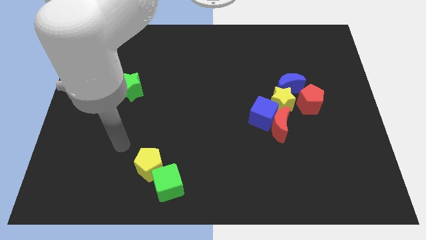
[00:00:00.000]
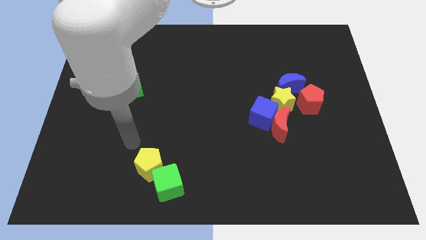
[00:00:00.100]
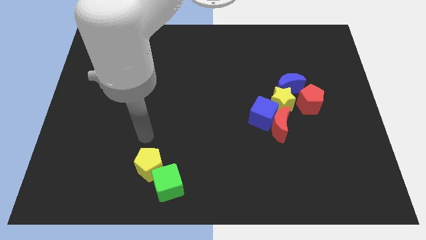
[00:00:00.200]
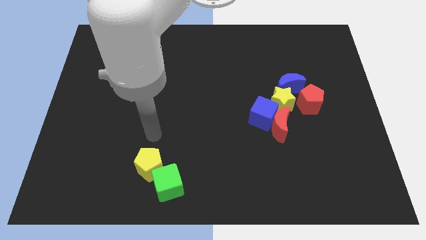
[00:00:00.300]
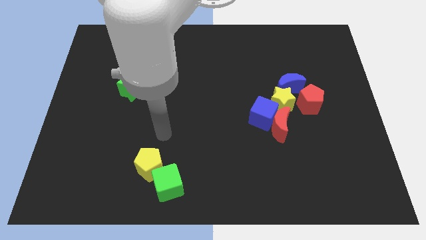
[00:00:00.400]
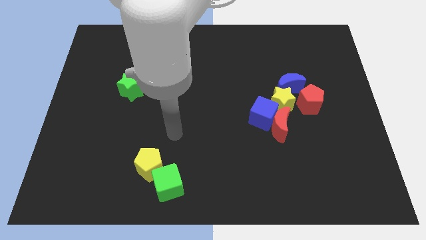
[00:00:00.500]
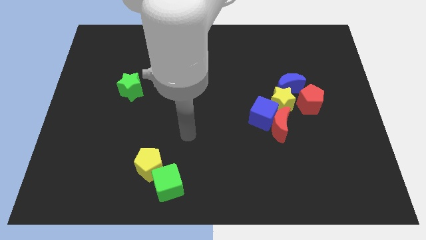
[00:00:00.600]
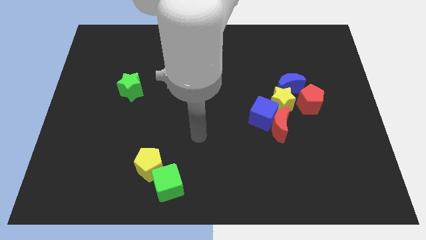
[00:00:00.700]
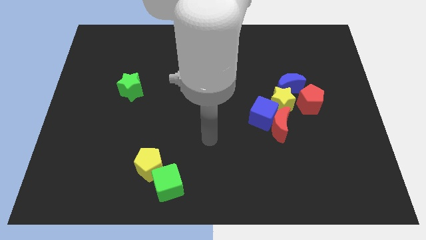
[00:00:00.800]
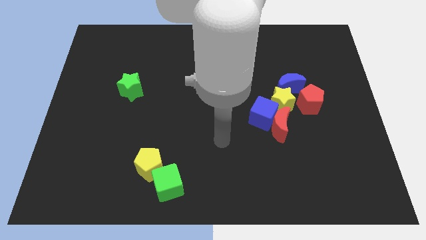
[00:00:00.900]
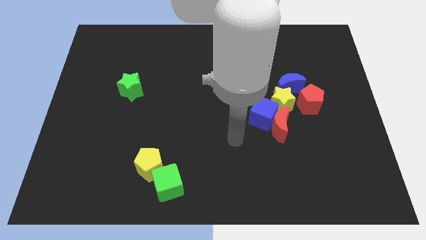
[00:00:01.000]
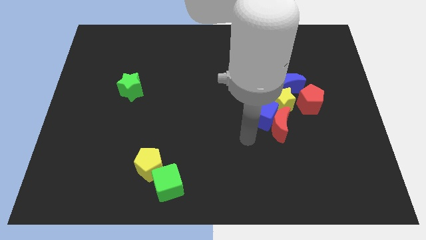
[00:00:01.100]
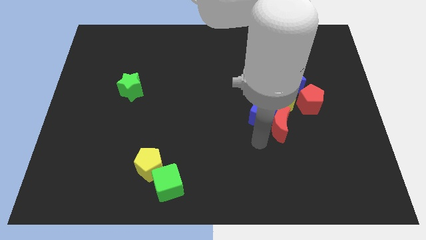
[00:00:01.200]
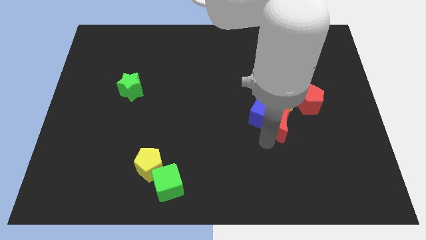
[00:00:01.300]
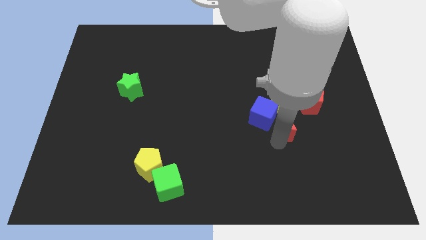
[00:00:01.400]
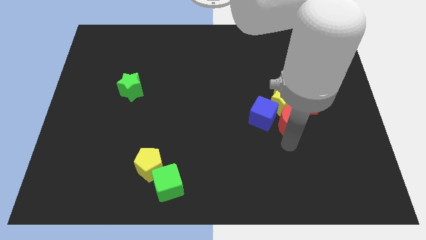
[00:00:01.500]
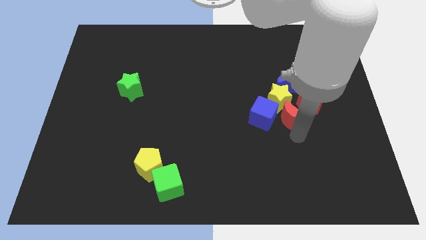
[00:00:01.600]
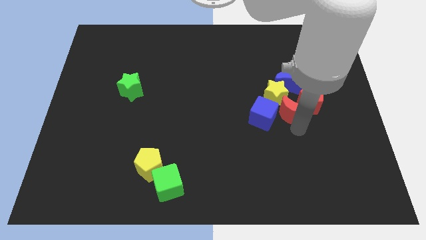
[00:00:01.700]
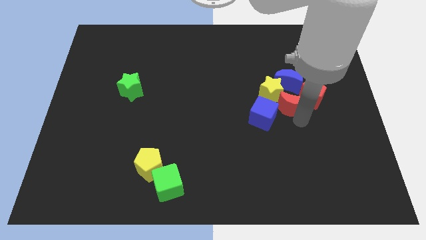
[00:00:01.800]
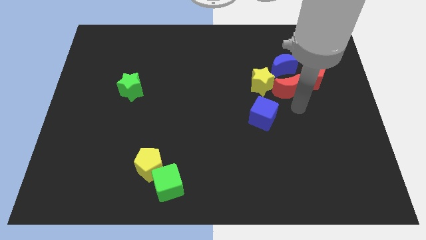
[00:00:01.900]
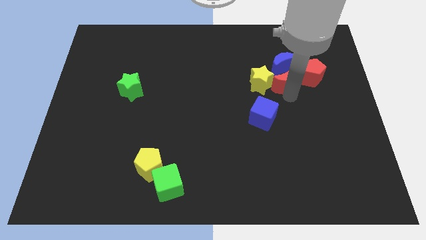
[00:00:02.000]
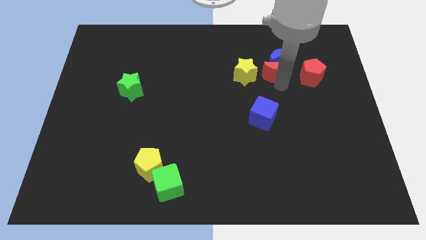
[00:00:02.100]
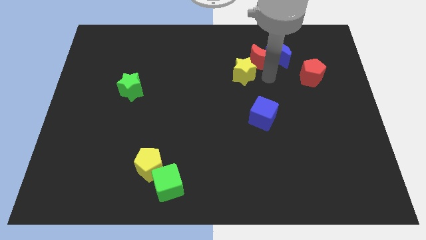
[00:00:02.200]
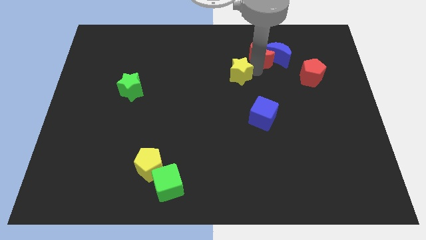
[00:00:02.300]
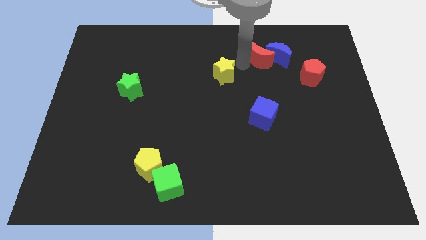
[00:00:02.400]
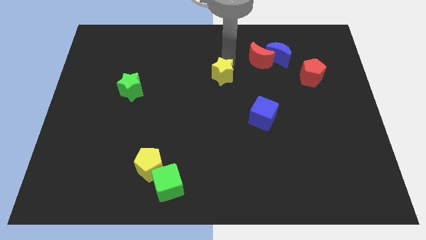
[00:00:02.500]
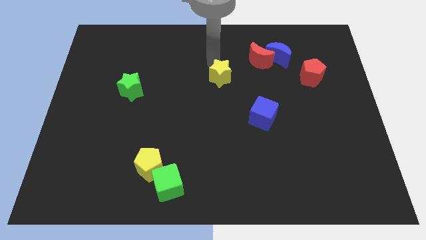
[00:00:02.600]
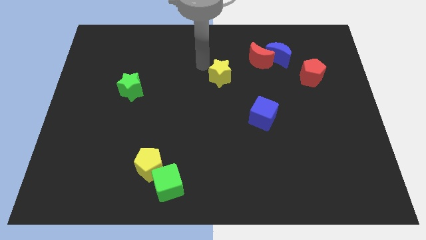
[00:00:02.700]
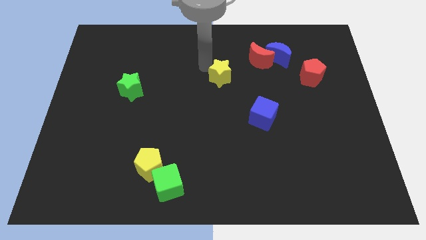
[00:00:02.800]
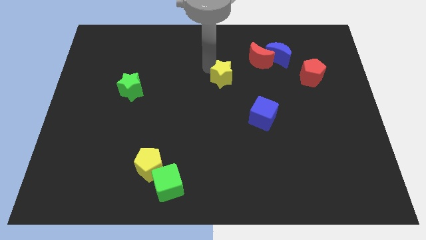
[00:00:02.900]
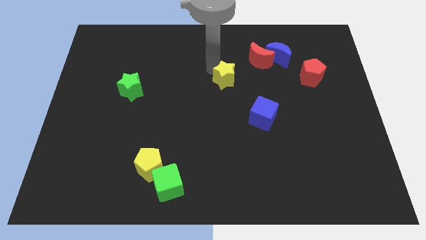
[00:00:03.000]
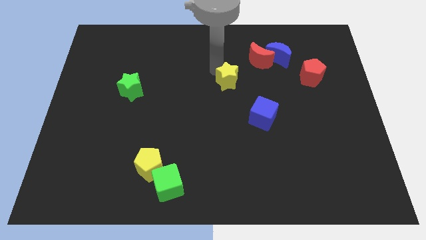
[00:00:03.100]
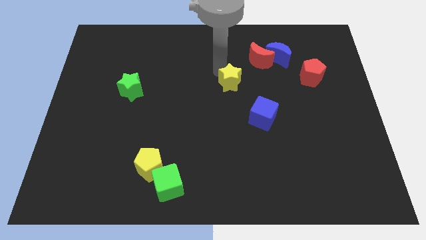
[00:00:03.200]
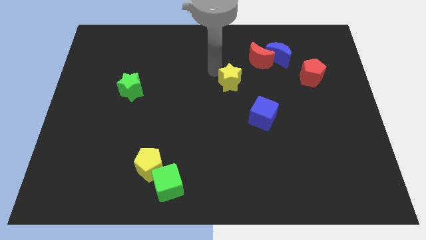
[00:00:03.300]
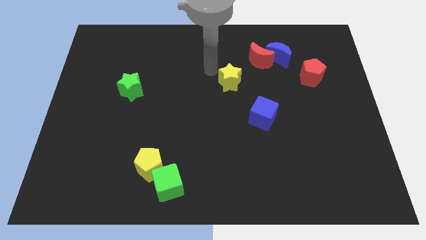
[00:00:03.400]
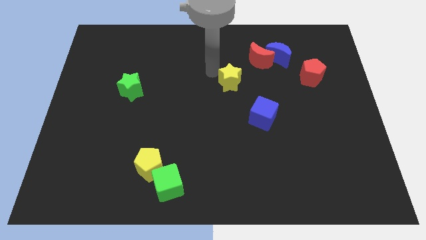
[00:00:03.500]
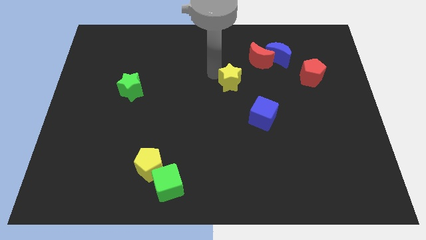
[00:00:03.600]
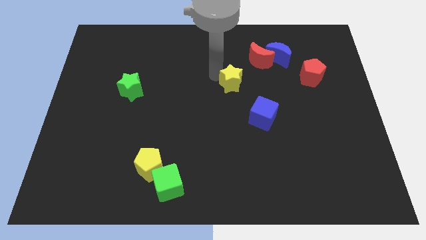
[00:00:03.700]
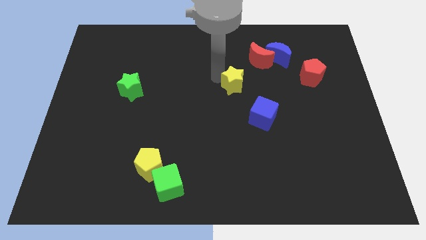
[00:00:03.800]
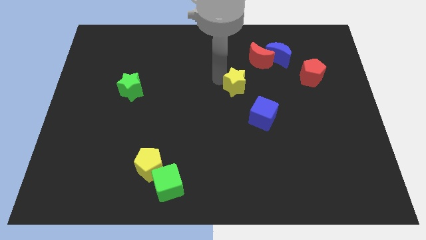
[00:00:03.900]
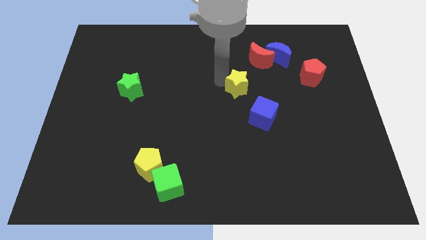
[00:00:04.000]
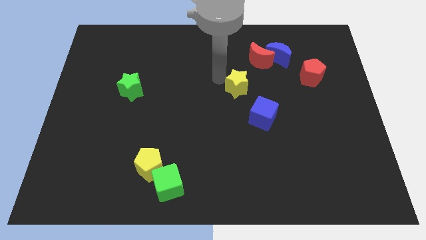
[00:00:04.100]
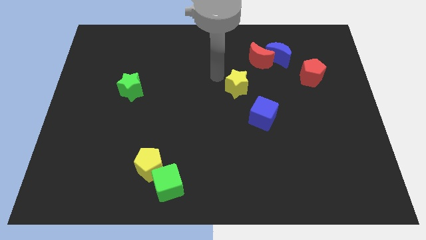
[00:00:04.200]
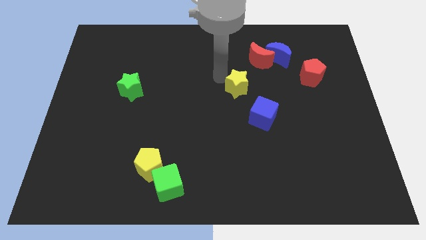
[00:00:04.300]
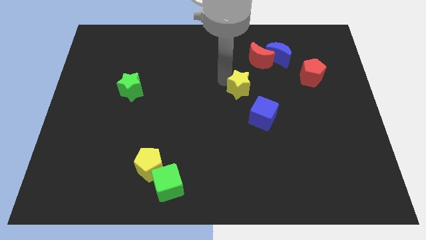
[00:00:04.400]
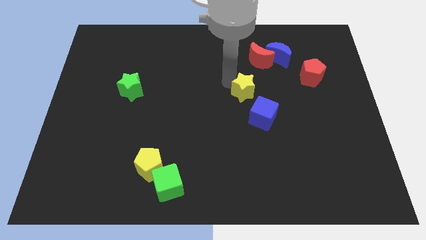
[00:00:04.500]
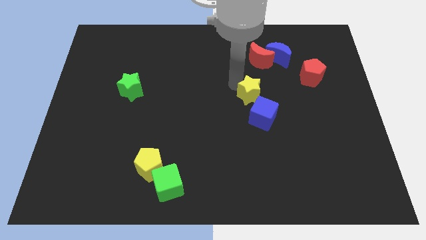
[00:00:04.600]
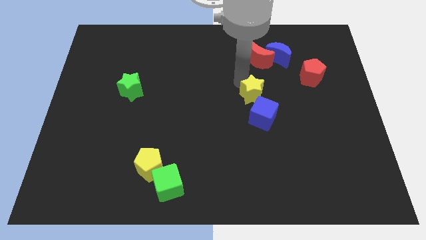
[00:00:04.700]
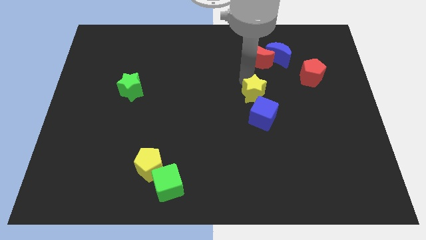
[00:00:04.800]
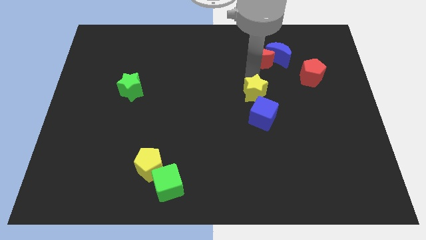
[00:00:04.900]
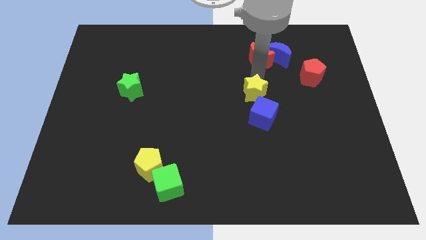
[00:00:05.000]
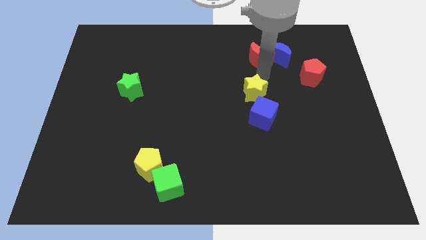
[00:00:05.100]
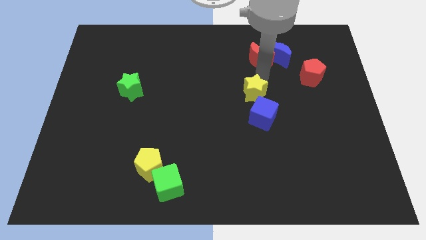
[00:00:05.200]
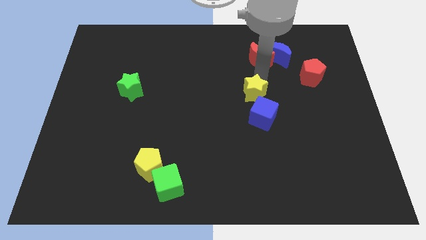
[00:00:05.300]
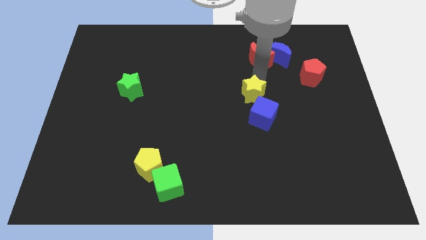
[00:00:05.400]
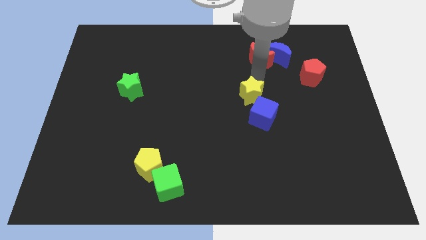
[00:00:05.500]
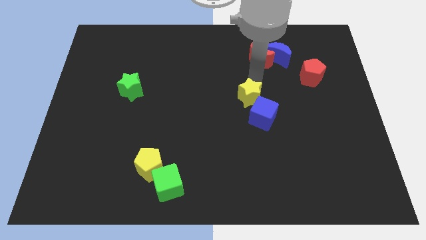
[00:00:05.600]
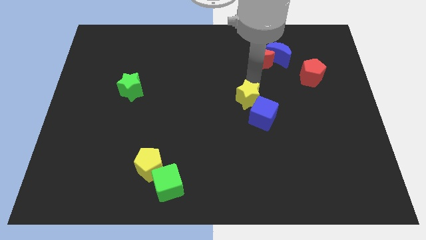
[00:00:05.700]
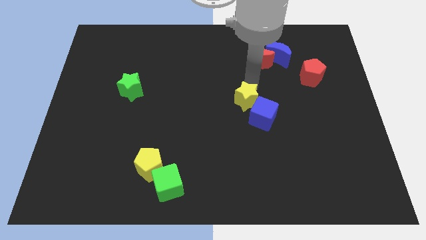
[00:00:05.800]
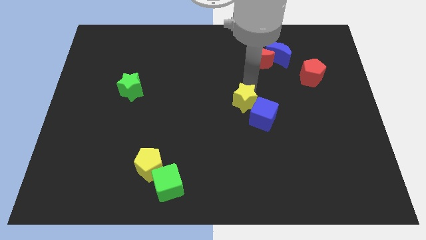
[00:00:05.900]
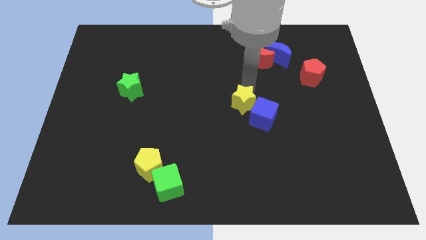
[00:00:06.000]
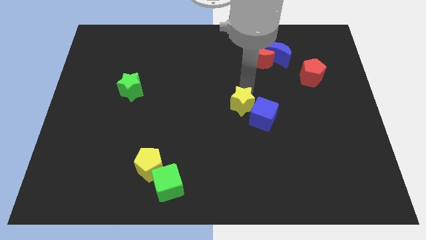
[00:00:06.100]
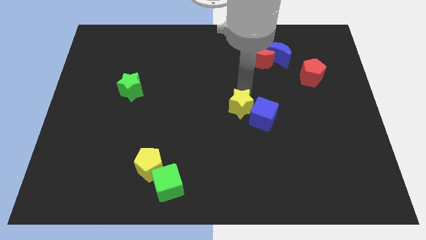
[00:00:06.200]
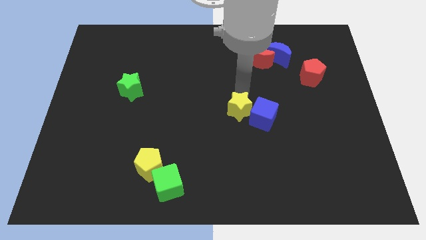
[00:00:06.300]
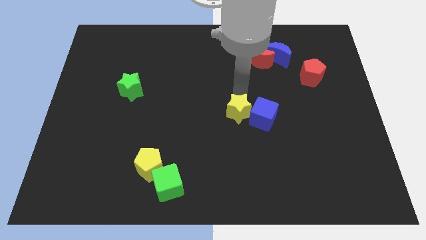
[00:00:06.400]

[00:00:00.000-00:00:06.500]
slide the yellow star somewhat downwards and to the left

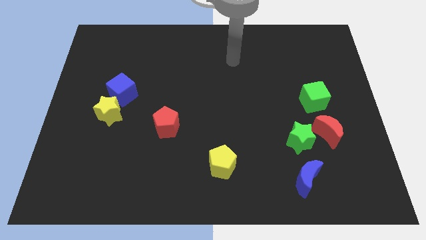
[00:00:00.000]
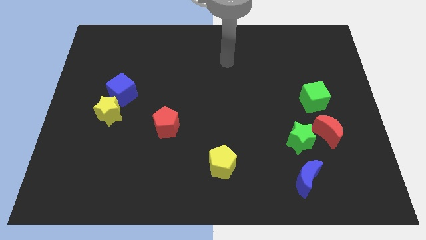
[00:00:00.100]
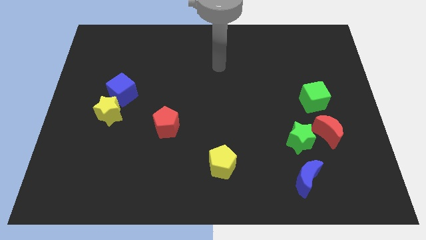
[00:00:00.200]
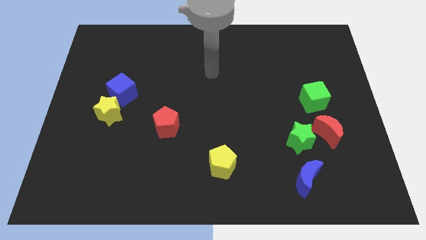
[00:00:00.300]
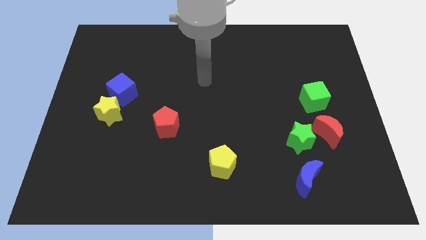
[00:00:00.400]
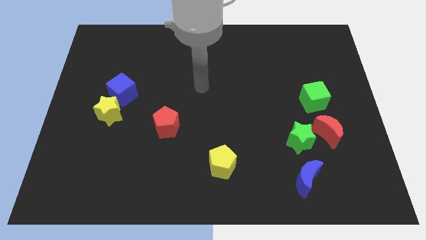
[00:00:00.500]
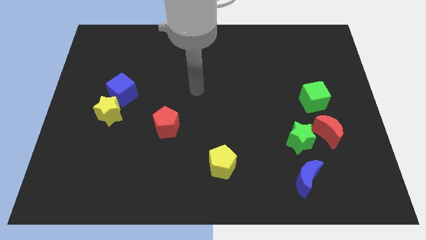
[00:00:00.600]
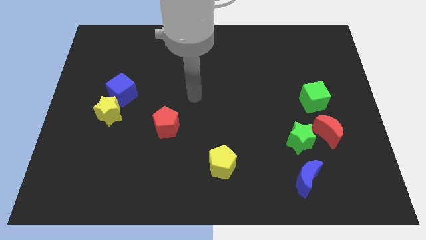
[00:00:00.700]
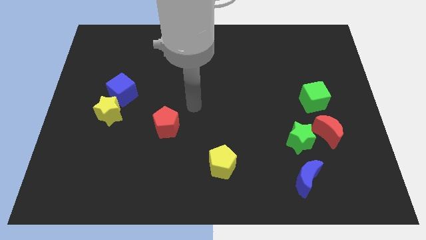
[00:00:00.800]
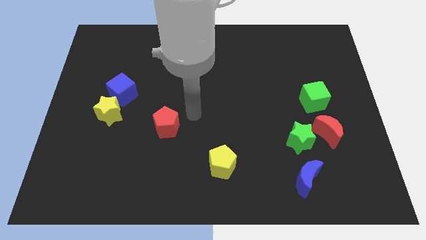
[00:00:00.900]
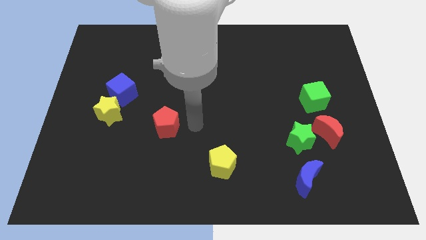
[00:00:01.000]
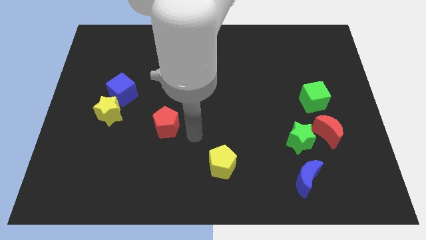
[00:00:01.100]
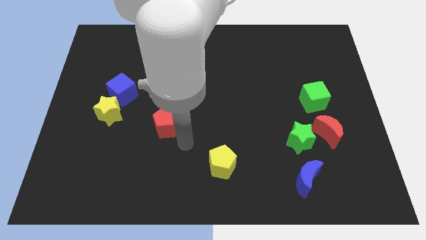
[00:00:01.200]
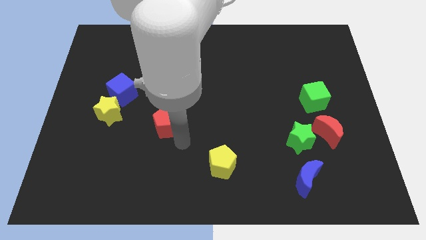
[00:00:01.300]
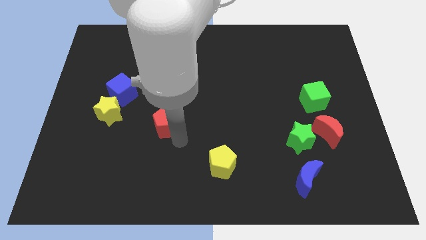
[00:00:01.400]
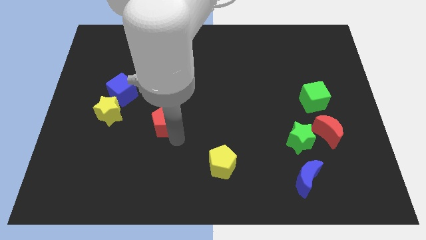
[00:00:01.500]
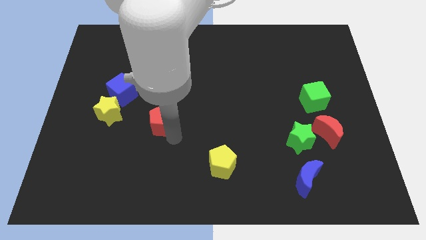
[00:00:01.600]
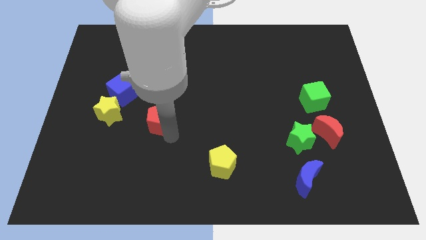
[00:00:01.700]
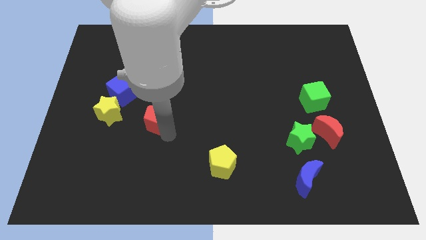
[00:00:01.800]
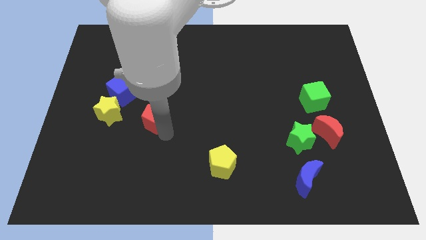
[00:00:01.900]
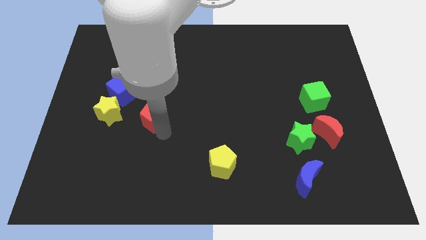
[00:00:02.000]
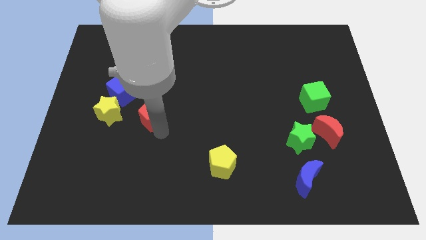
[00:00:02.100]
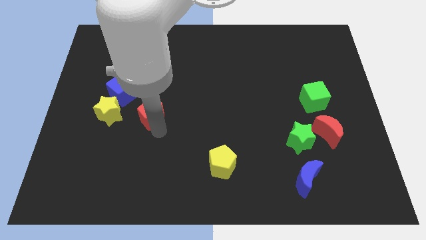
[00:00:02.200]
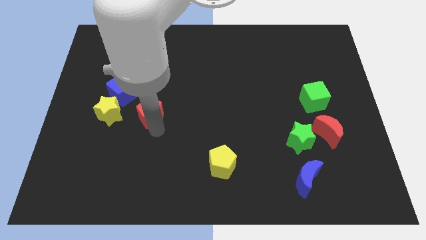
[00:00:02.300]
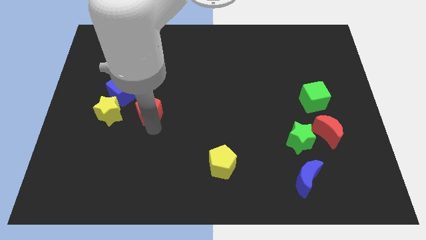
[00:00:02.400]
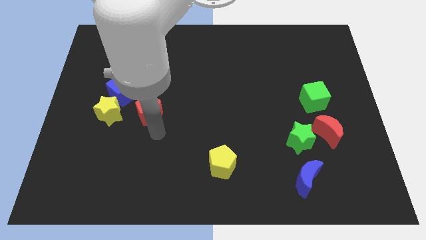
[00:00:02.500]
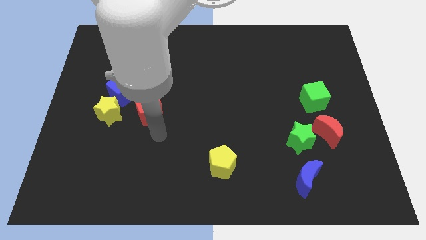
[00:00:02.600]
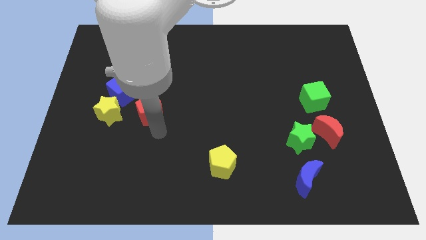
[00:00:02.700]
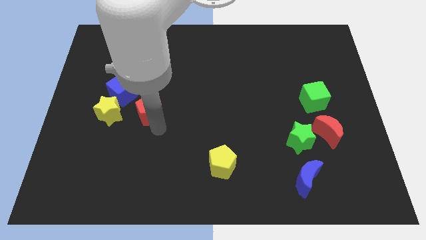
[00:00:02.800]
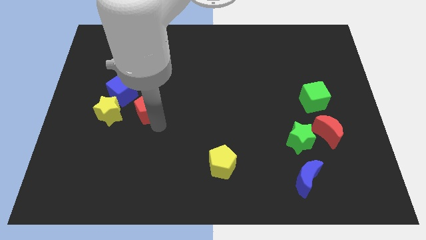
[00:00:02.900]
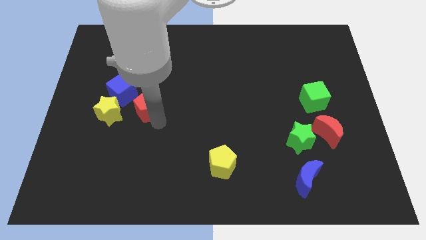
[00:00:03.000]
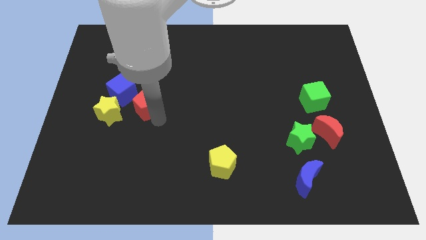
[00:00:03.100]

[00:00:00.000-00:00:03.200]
slide the red pentagon somewhat diagonally up and to the left
